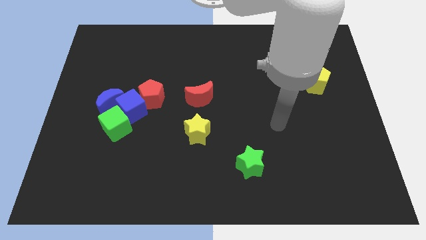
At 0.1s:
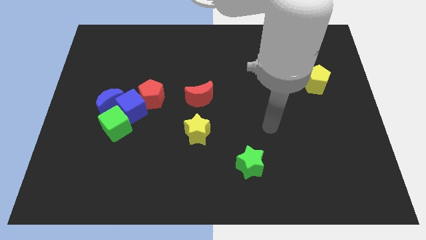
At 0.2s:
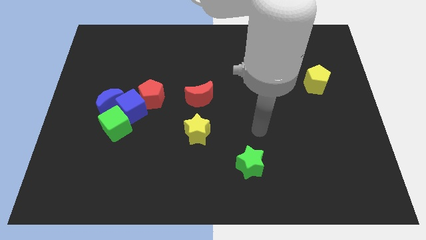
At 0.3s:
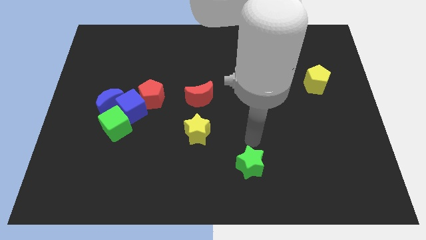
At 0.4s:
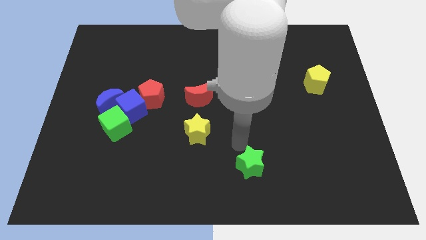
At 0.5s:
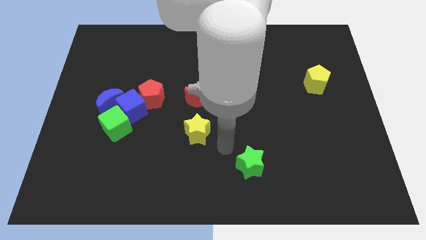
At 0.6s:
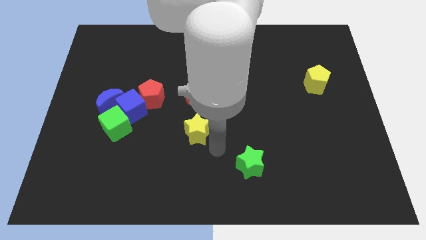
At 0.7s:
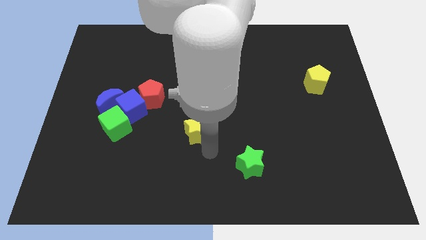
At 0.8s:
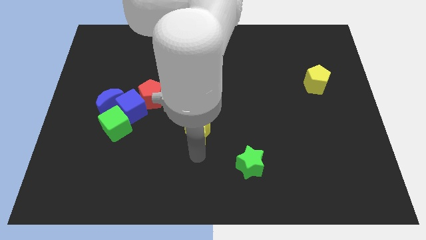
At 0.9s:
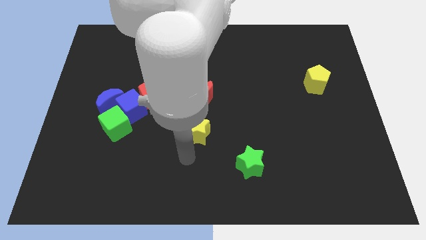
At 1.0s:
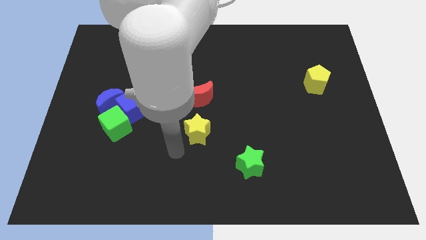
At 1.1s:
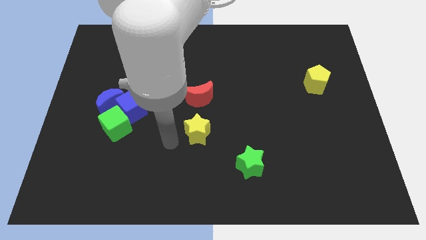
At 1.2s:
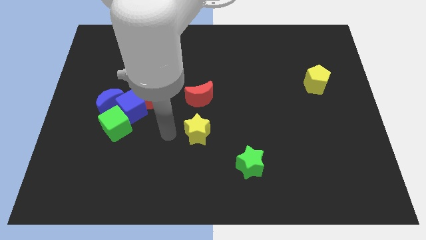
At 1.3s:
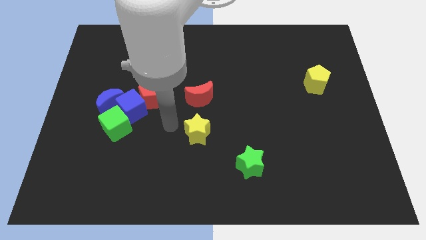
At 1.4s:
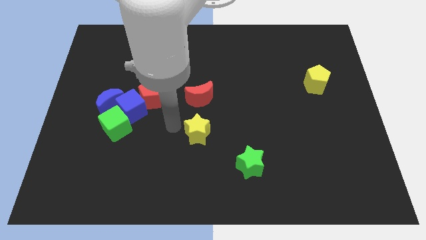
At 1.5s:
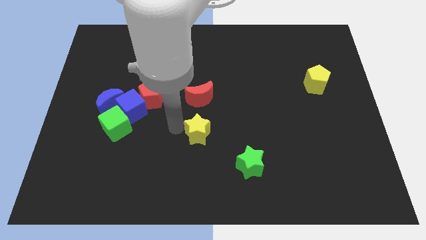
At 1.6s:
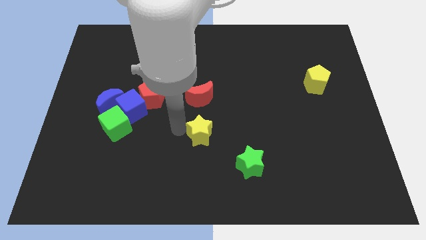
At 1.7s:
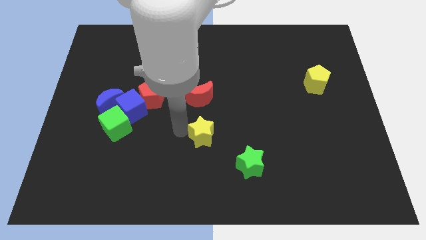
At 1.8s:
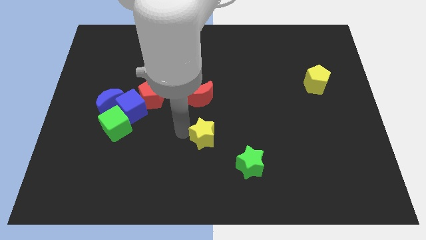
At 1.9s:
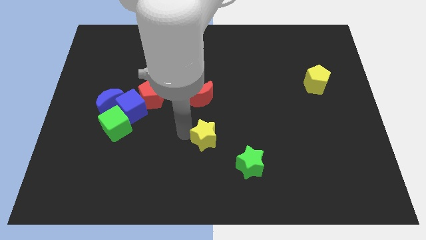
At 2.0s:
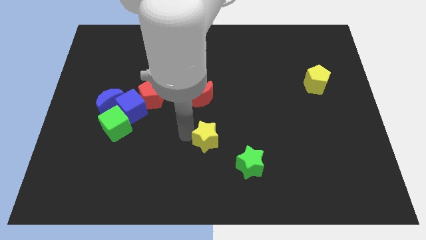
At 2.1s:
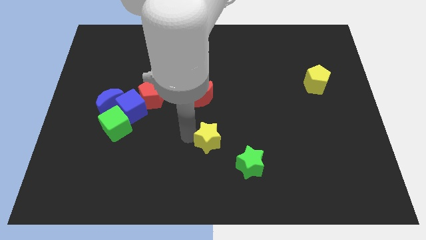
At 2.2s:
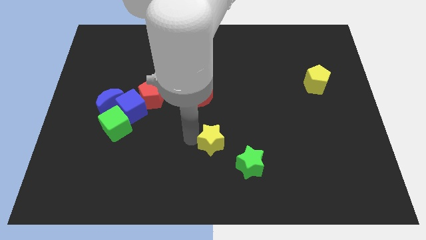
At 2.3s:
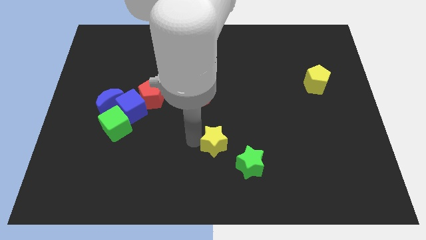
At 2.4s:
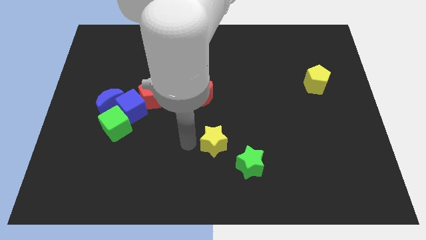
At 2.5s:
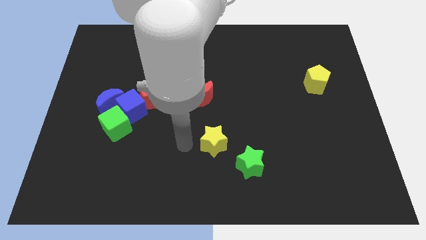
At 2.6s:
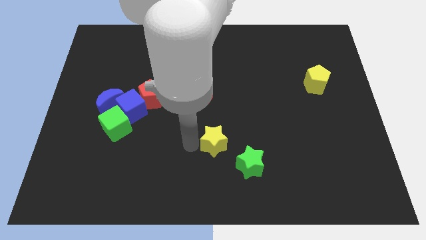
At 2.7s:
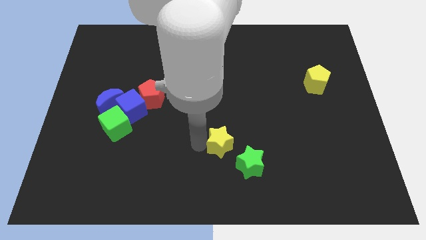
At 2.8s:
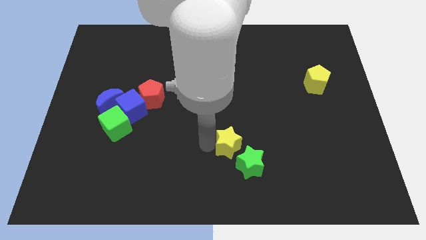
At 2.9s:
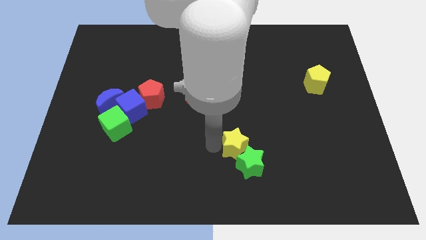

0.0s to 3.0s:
slightly slide the yellow star right

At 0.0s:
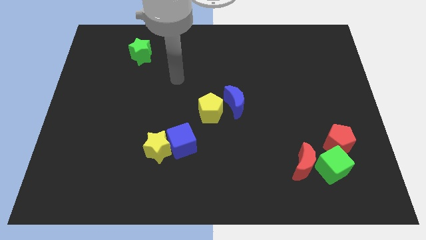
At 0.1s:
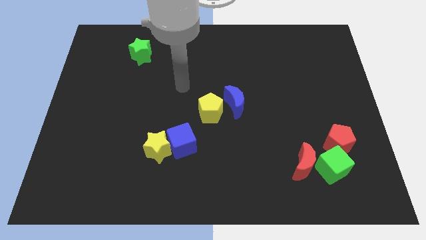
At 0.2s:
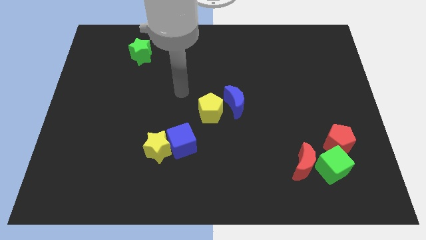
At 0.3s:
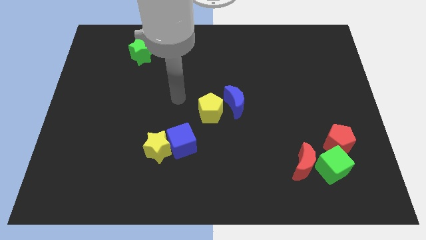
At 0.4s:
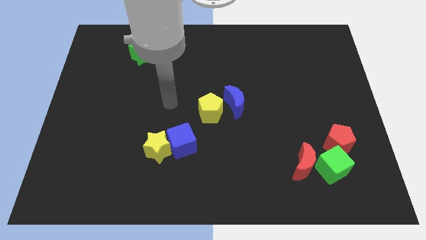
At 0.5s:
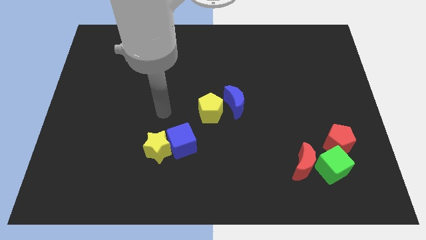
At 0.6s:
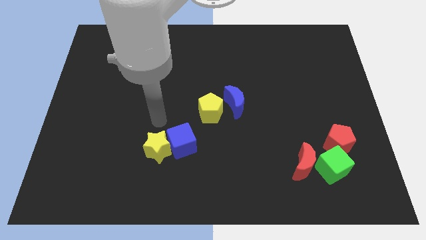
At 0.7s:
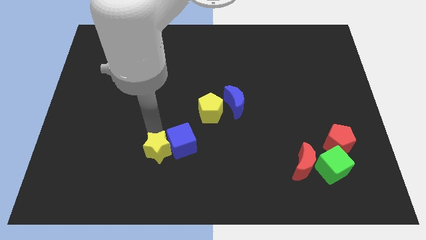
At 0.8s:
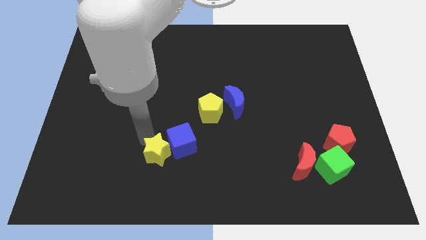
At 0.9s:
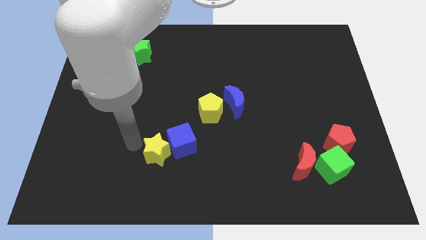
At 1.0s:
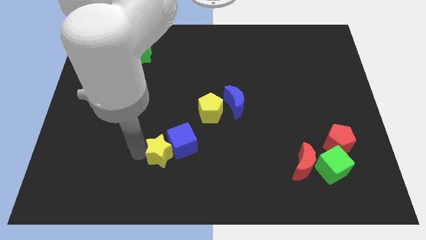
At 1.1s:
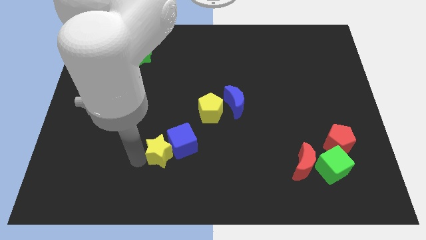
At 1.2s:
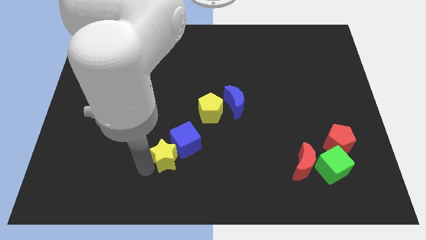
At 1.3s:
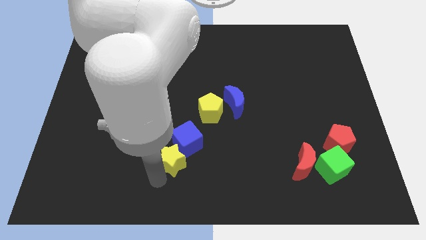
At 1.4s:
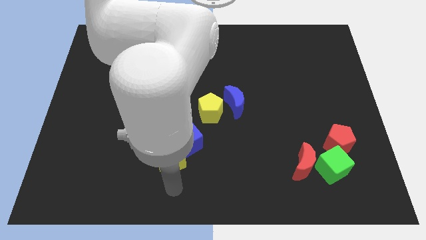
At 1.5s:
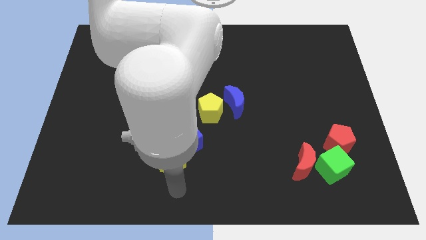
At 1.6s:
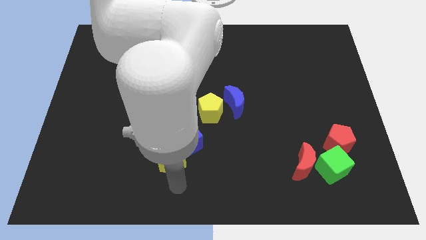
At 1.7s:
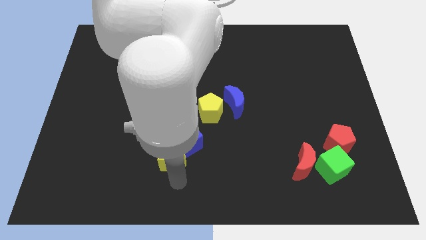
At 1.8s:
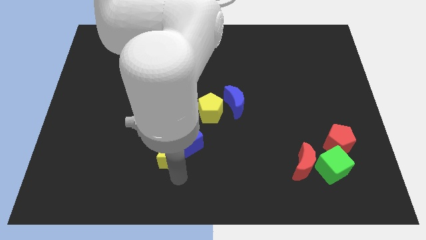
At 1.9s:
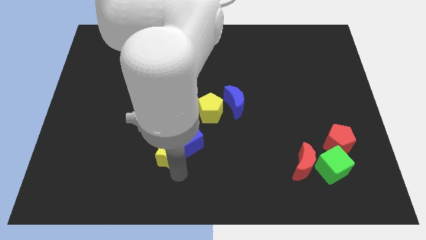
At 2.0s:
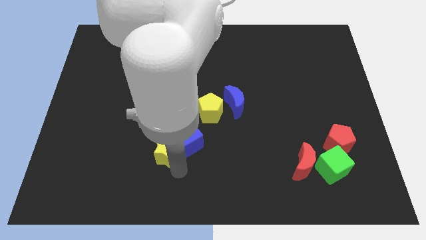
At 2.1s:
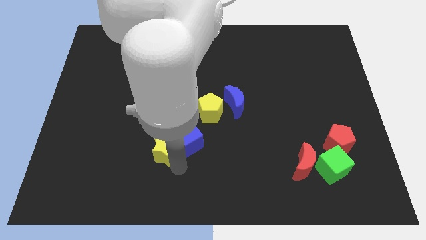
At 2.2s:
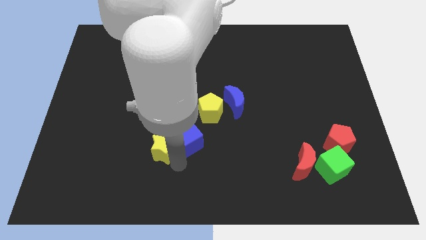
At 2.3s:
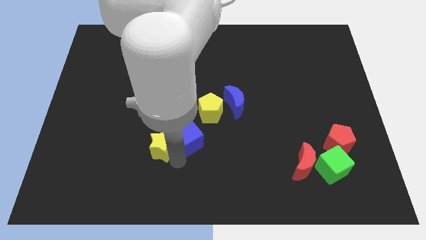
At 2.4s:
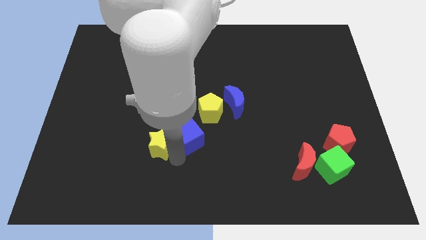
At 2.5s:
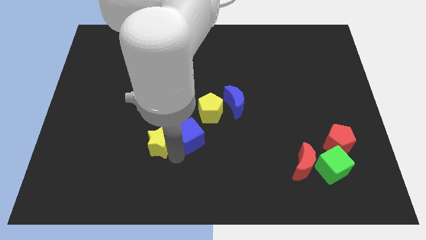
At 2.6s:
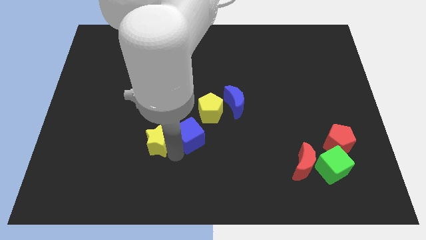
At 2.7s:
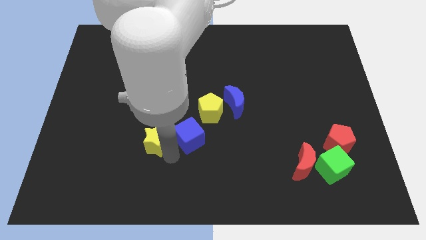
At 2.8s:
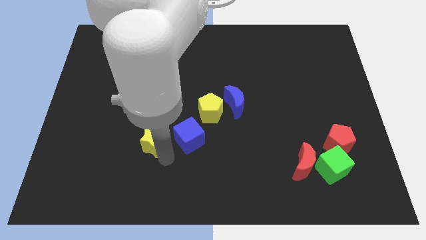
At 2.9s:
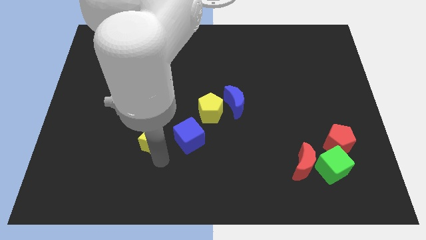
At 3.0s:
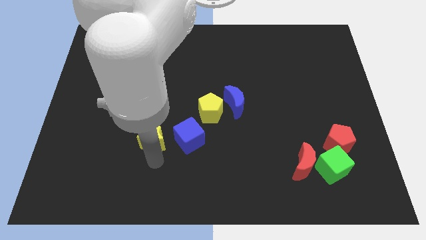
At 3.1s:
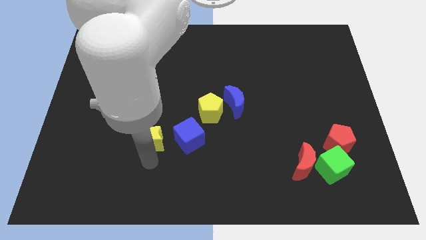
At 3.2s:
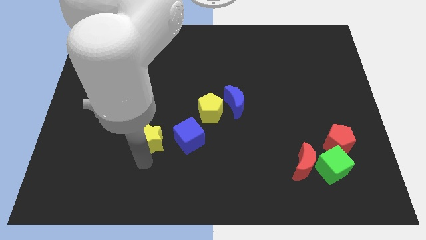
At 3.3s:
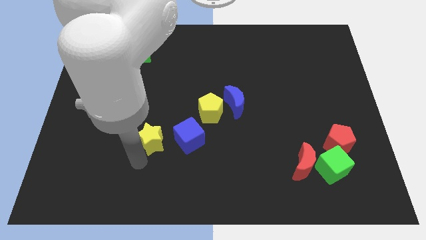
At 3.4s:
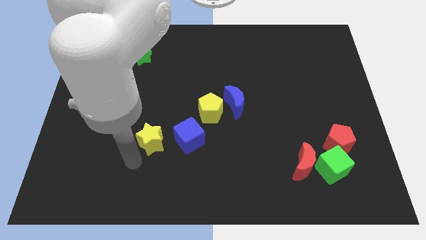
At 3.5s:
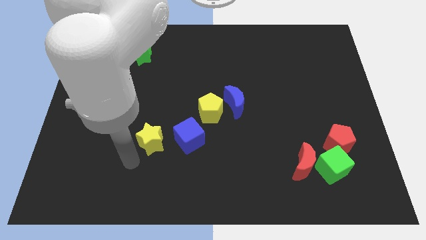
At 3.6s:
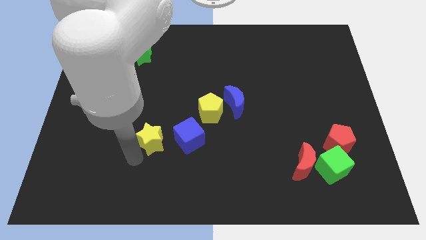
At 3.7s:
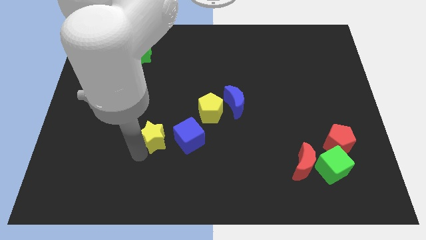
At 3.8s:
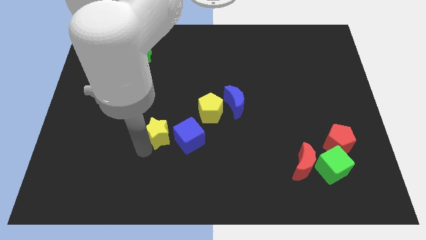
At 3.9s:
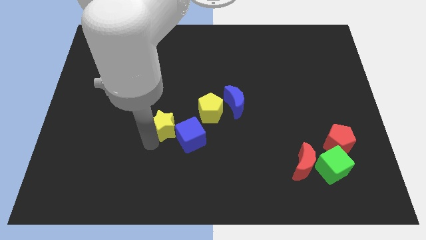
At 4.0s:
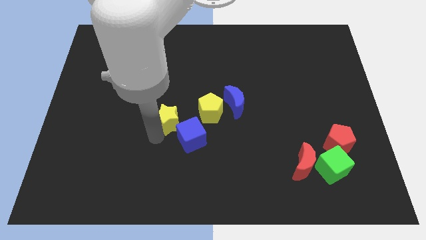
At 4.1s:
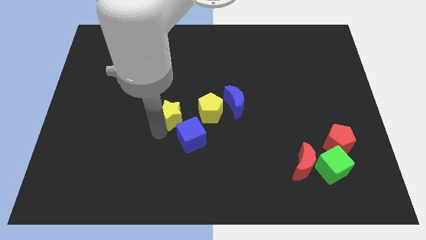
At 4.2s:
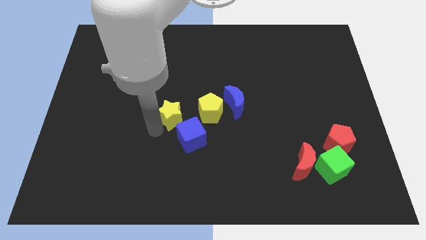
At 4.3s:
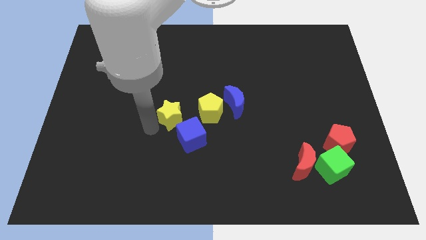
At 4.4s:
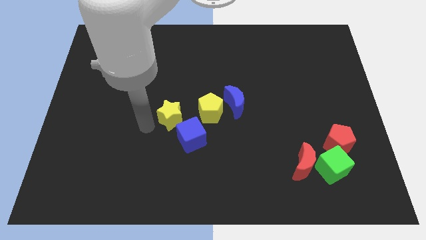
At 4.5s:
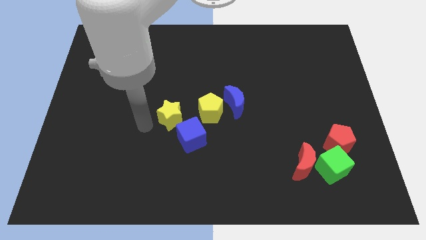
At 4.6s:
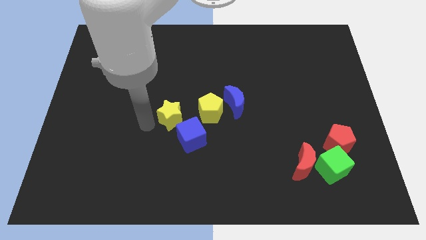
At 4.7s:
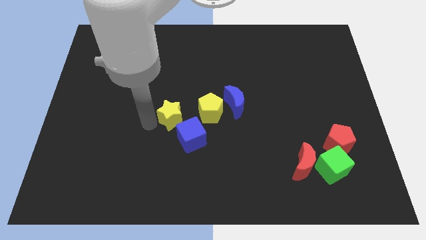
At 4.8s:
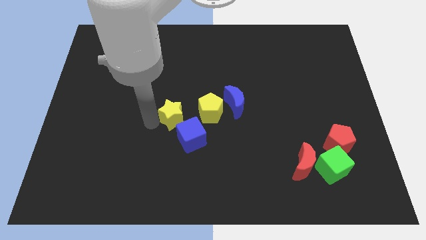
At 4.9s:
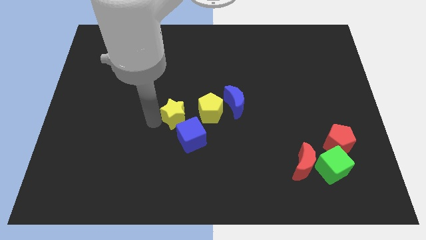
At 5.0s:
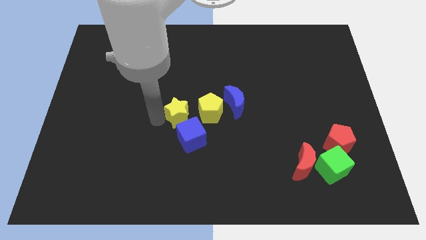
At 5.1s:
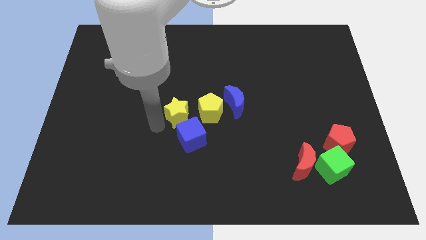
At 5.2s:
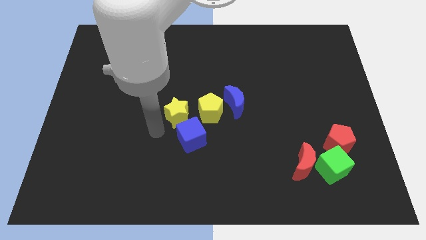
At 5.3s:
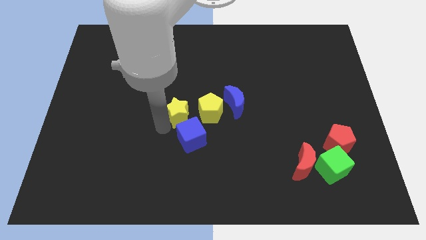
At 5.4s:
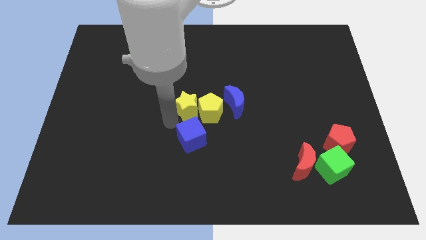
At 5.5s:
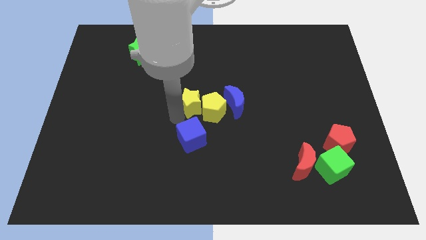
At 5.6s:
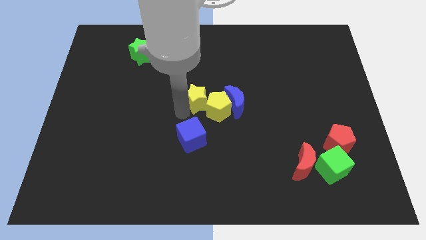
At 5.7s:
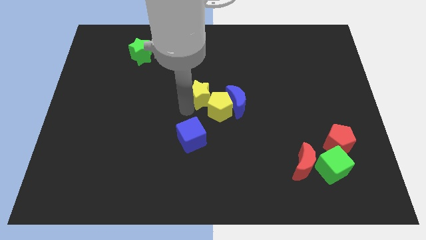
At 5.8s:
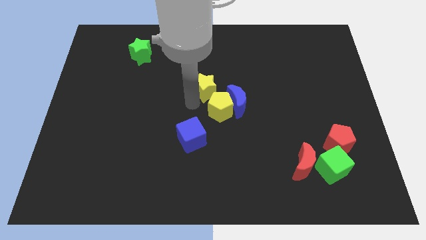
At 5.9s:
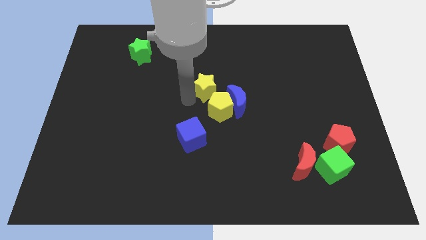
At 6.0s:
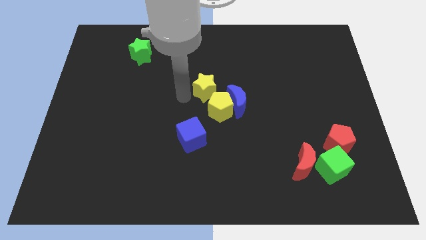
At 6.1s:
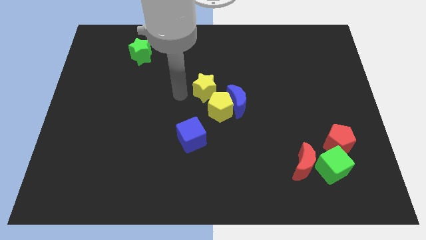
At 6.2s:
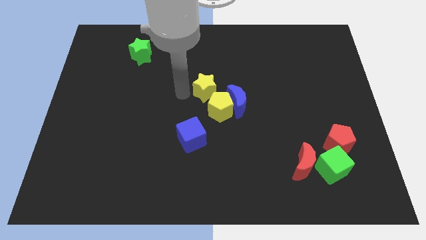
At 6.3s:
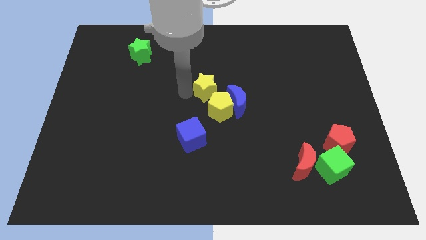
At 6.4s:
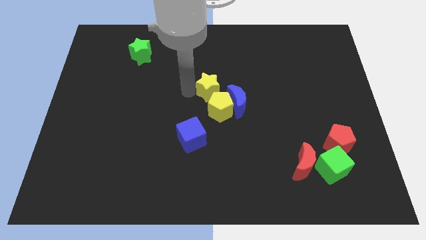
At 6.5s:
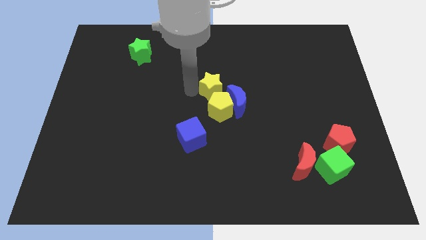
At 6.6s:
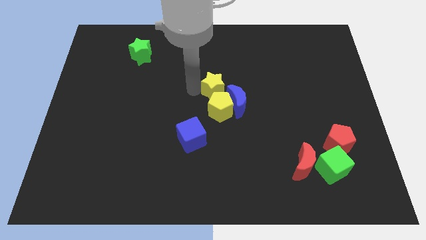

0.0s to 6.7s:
slide the yellow star diagonally upwards and to the right
